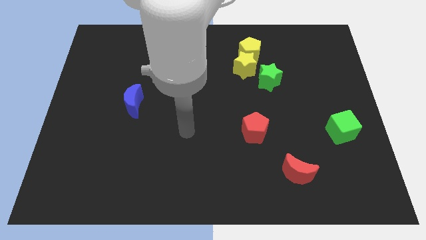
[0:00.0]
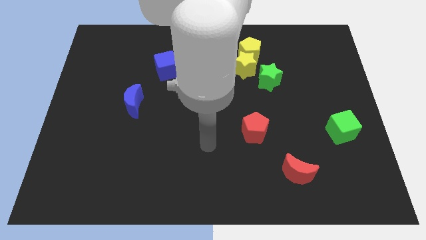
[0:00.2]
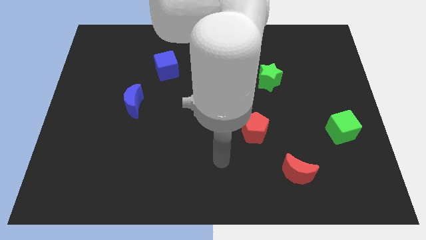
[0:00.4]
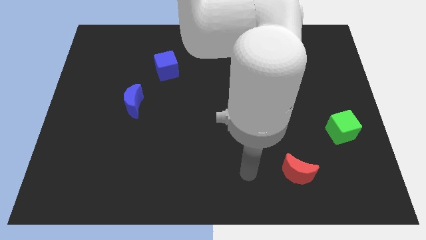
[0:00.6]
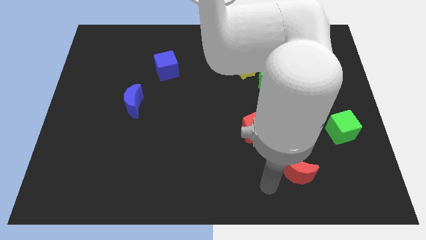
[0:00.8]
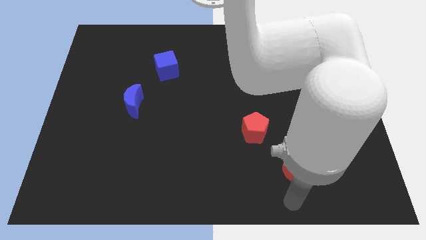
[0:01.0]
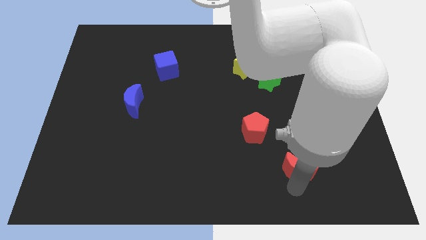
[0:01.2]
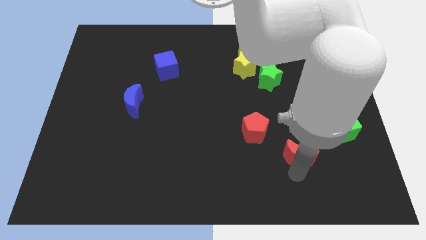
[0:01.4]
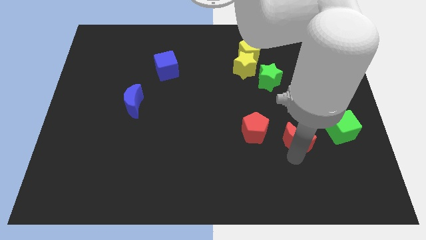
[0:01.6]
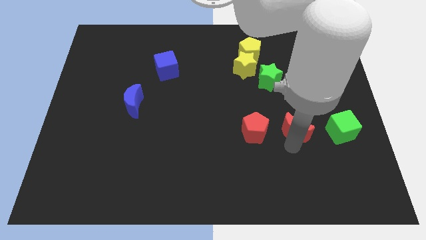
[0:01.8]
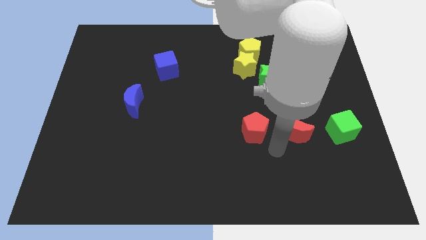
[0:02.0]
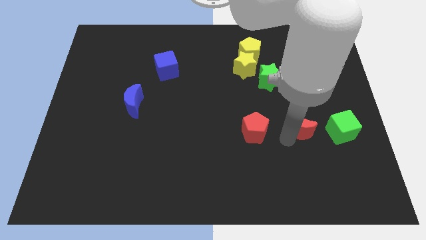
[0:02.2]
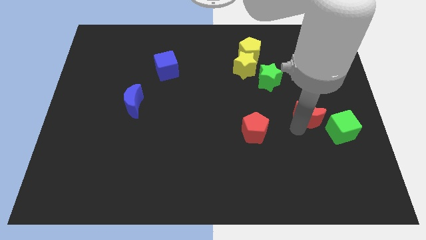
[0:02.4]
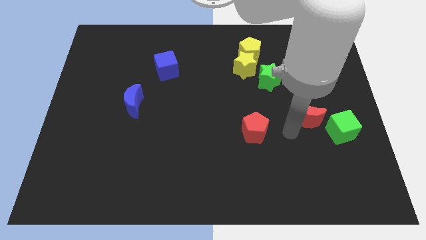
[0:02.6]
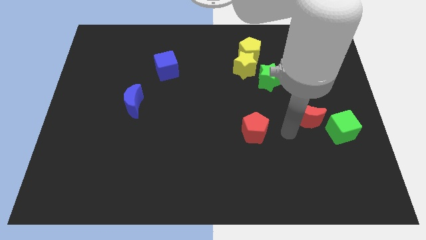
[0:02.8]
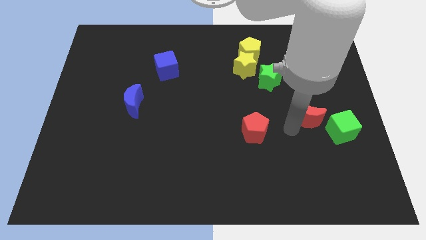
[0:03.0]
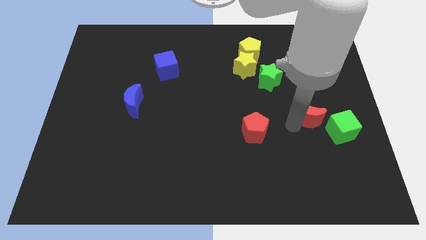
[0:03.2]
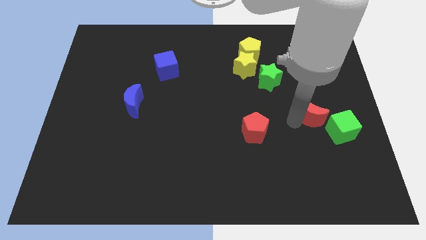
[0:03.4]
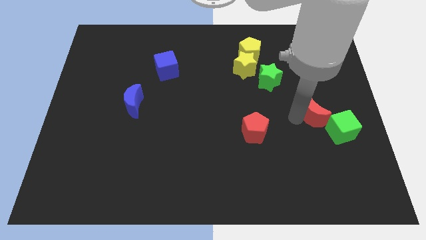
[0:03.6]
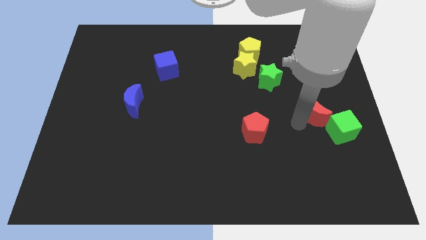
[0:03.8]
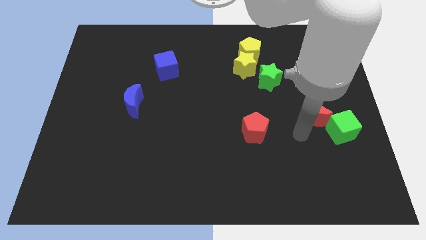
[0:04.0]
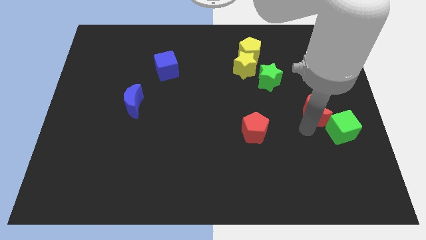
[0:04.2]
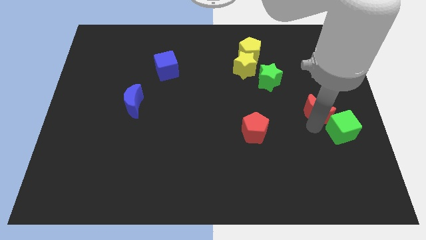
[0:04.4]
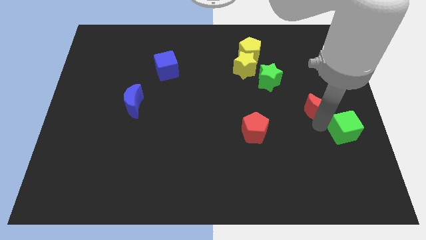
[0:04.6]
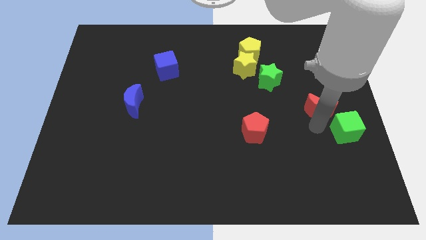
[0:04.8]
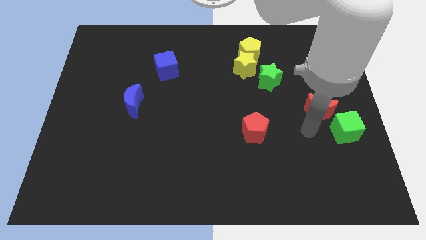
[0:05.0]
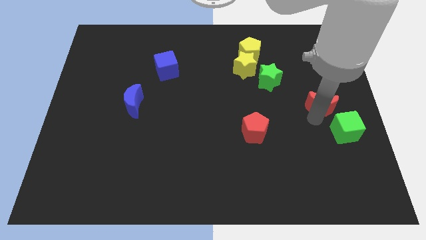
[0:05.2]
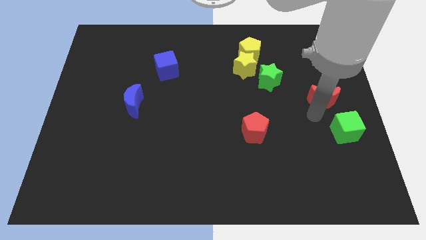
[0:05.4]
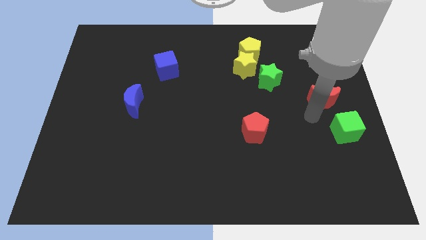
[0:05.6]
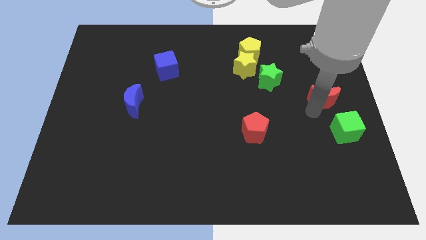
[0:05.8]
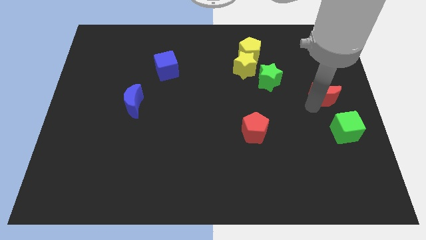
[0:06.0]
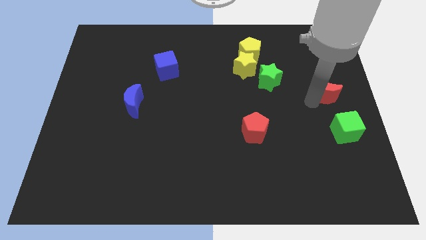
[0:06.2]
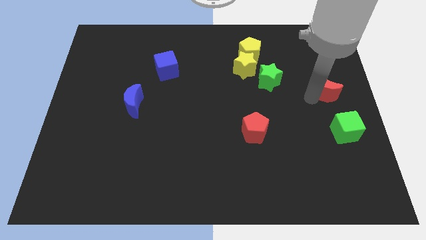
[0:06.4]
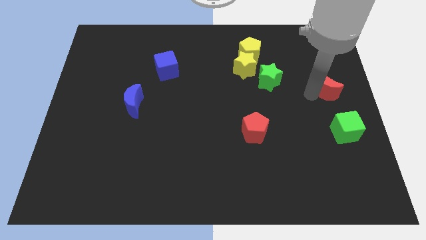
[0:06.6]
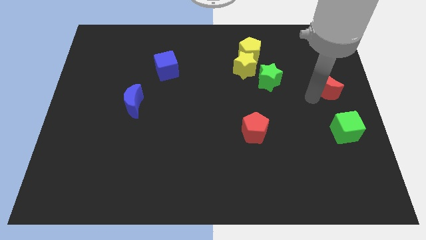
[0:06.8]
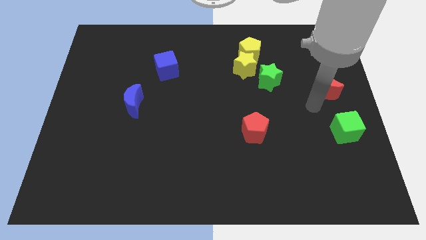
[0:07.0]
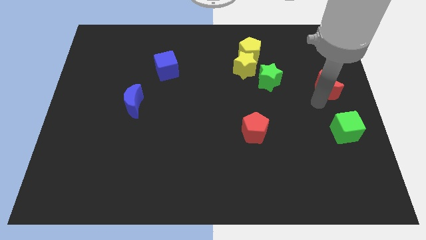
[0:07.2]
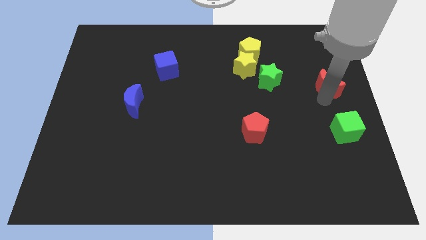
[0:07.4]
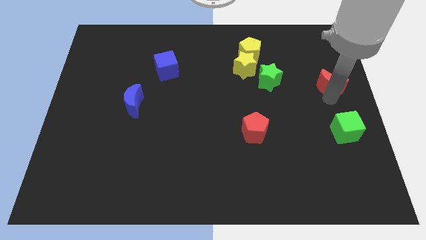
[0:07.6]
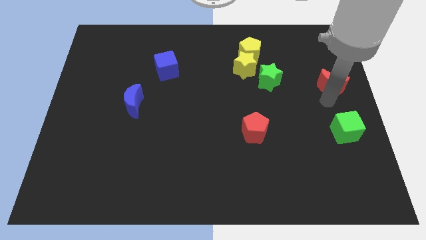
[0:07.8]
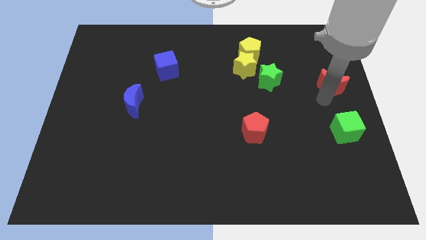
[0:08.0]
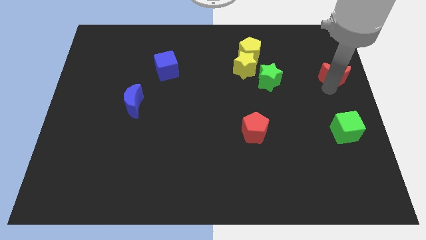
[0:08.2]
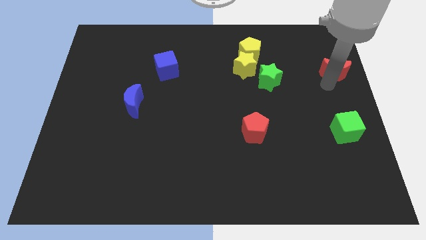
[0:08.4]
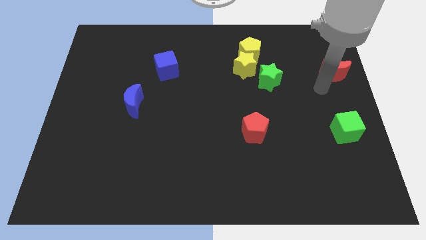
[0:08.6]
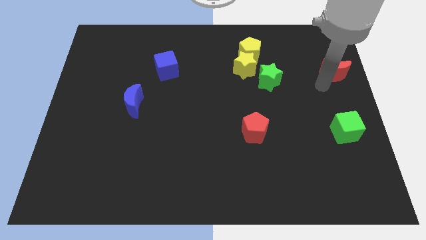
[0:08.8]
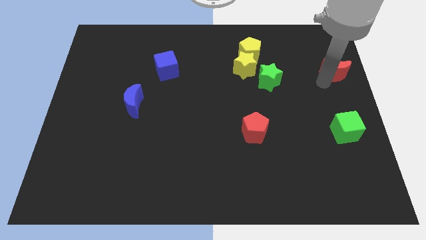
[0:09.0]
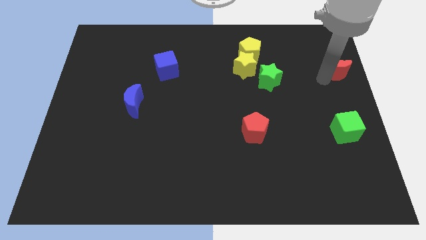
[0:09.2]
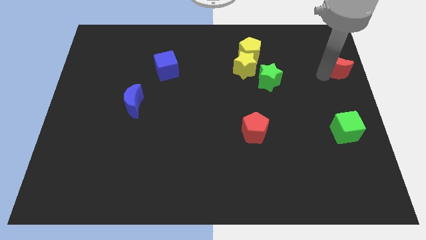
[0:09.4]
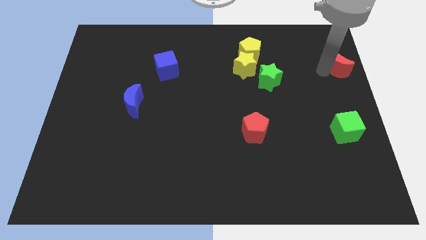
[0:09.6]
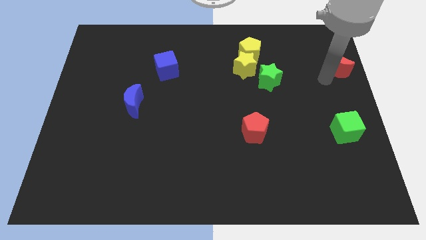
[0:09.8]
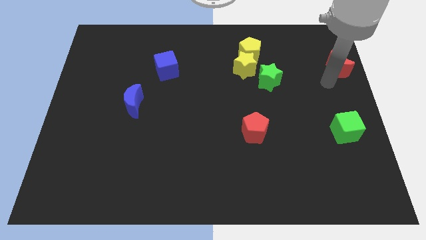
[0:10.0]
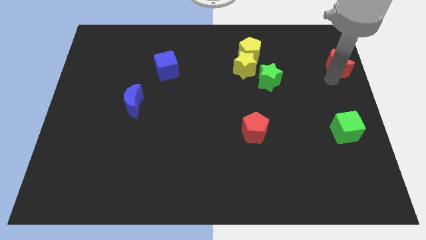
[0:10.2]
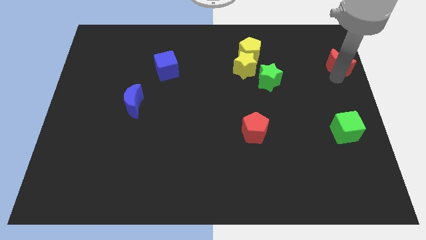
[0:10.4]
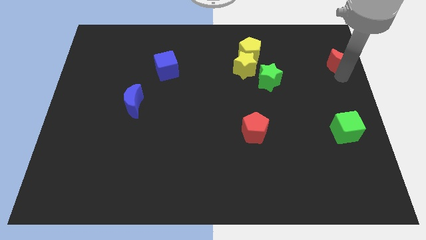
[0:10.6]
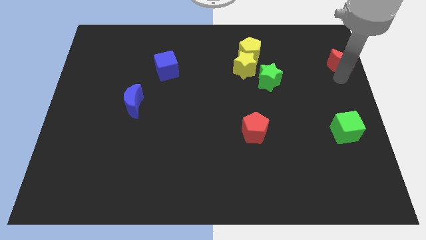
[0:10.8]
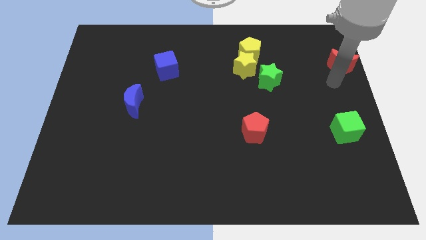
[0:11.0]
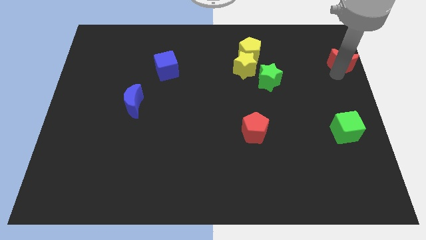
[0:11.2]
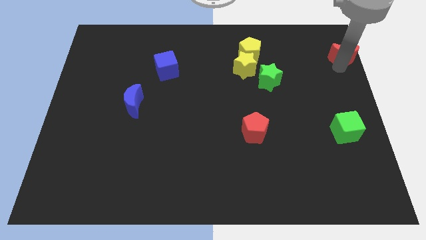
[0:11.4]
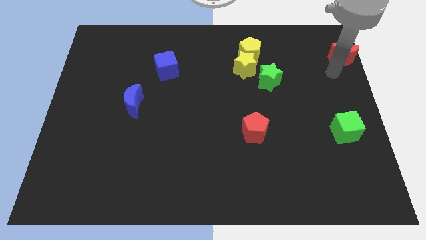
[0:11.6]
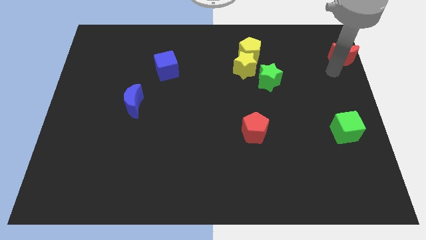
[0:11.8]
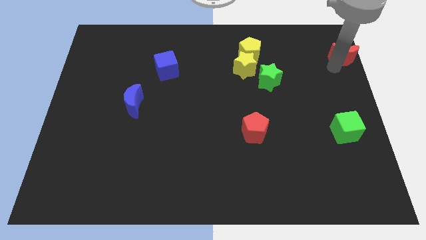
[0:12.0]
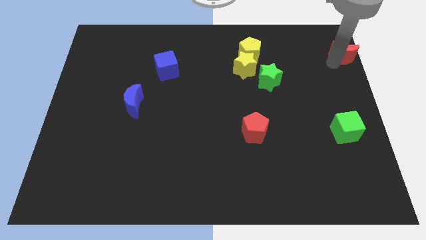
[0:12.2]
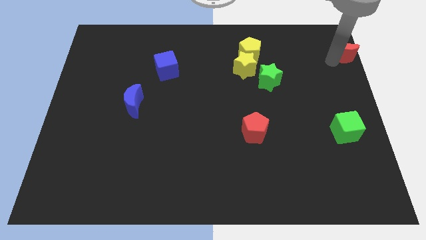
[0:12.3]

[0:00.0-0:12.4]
put the red moon to the top right corner
